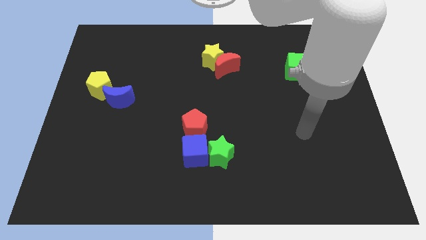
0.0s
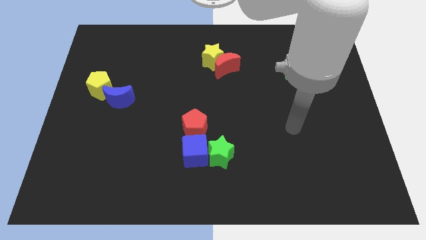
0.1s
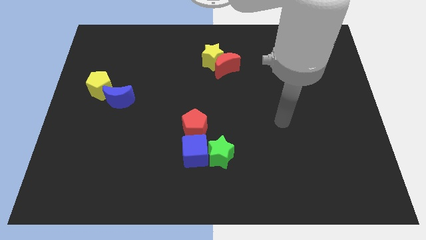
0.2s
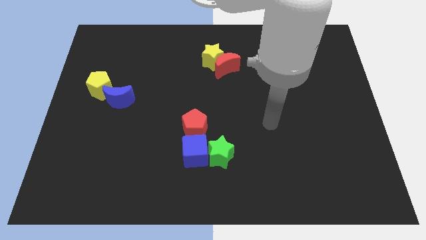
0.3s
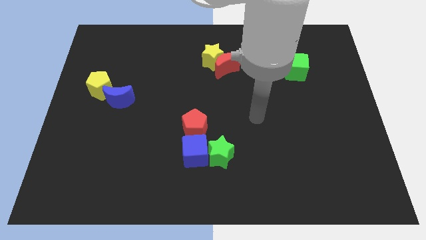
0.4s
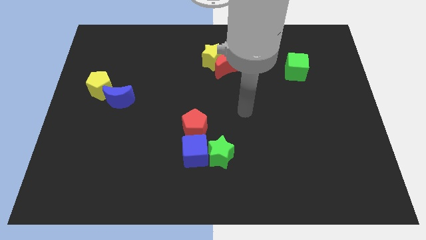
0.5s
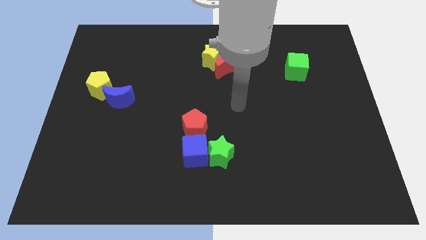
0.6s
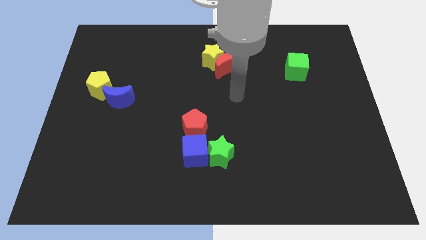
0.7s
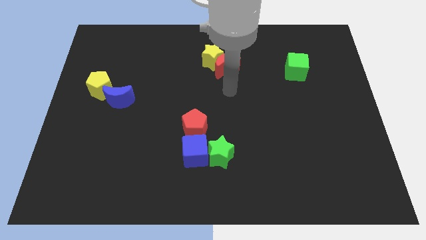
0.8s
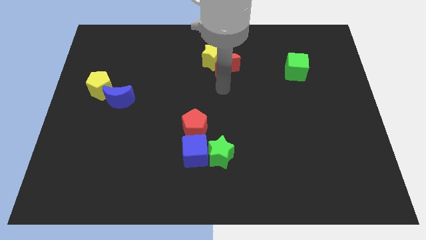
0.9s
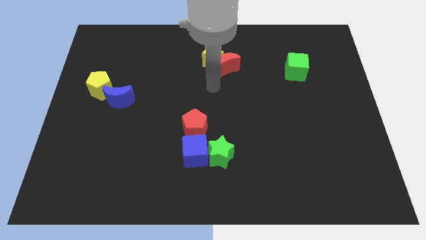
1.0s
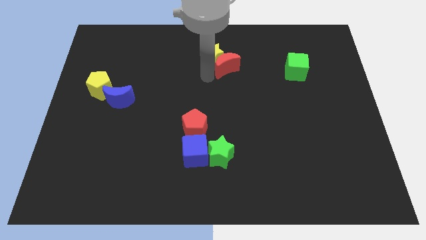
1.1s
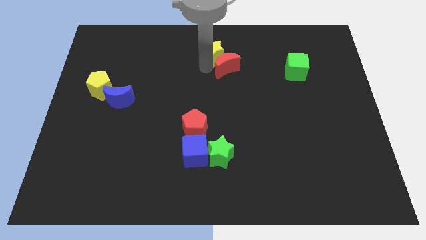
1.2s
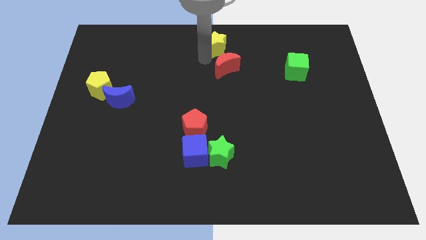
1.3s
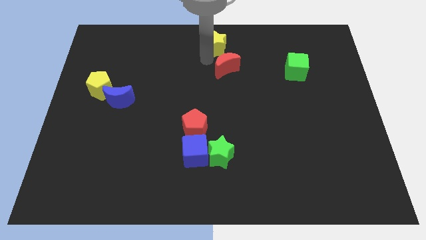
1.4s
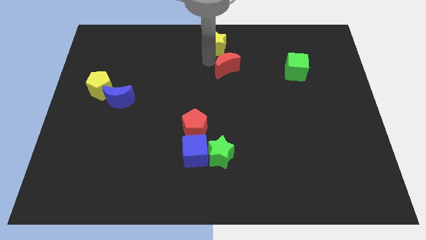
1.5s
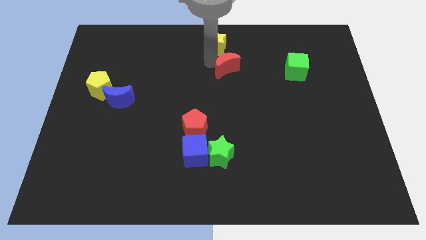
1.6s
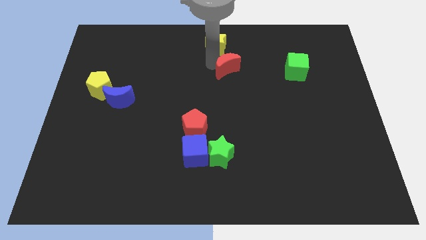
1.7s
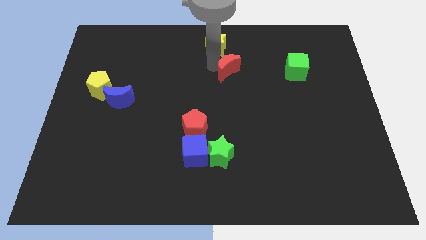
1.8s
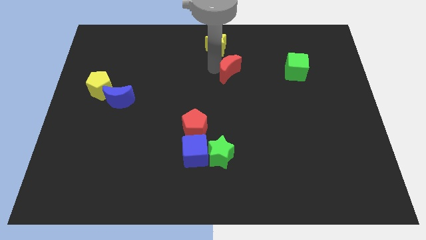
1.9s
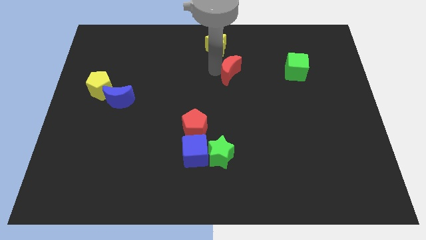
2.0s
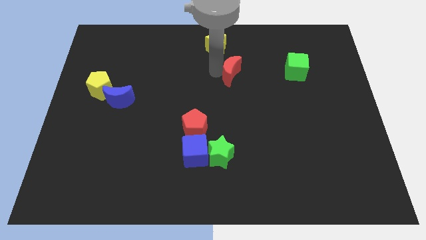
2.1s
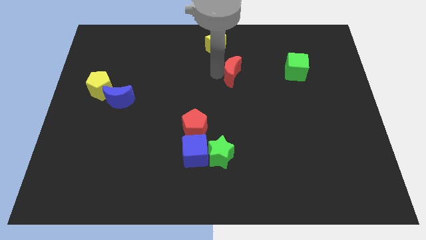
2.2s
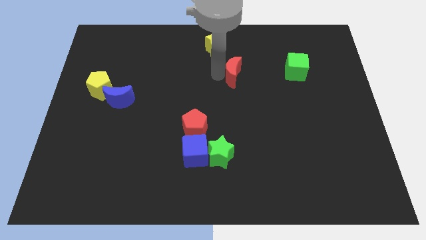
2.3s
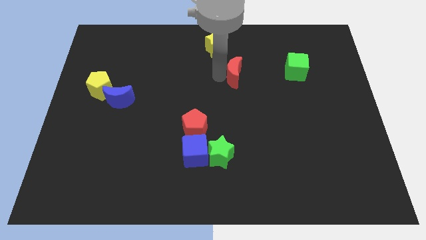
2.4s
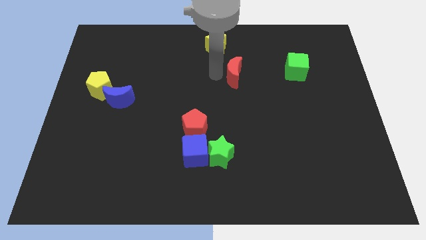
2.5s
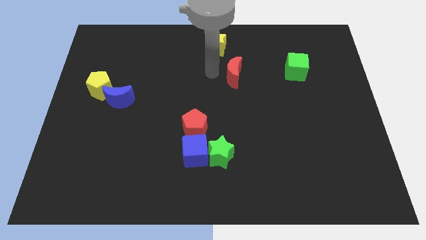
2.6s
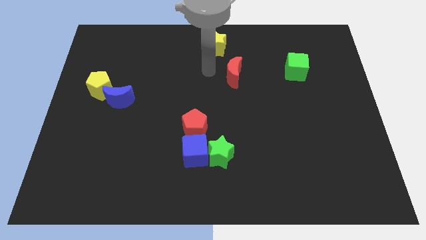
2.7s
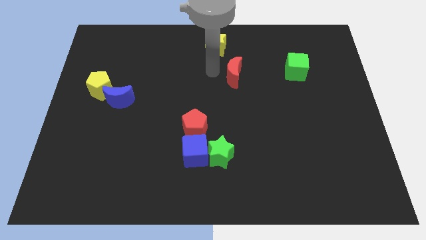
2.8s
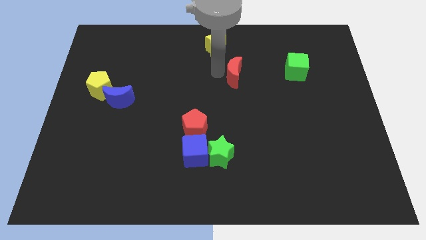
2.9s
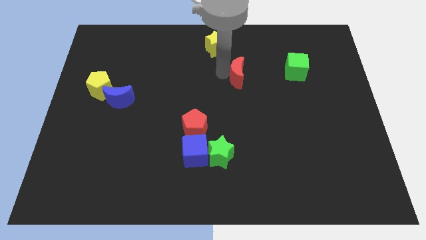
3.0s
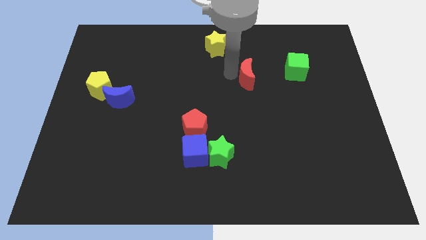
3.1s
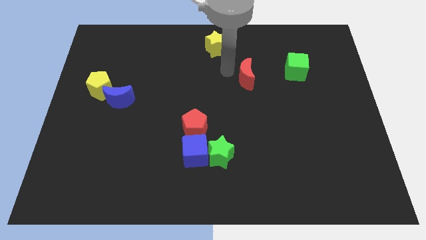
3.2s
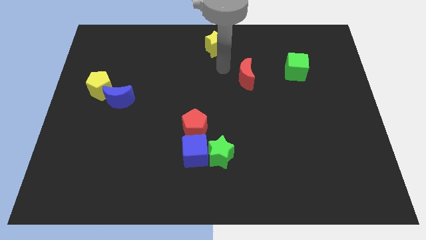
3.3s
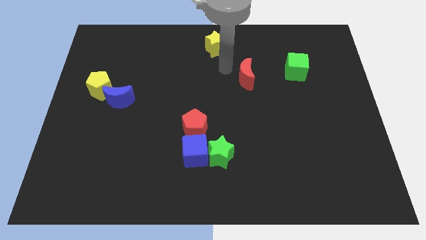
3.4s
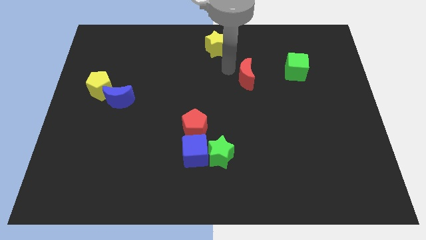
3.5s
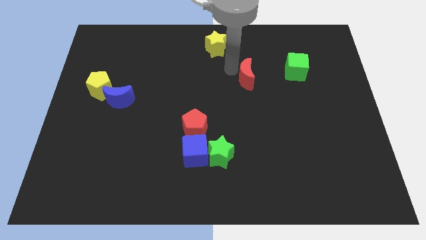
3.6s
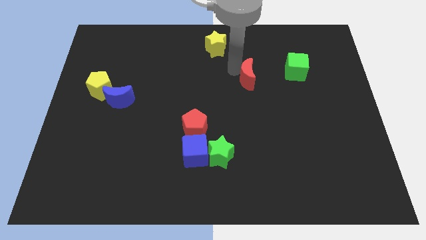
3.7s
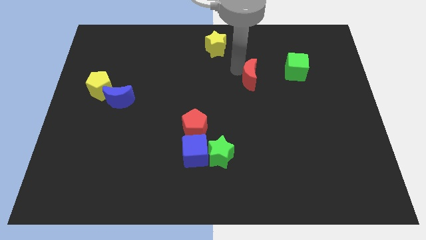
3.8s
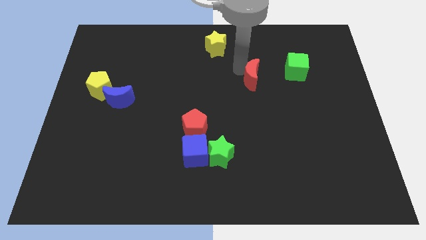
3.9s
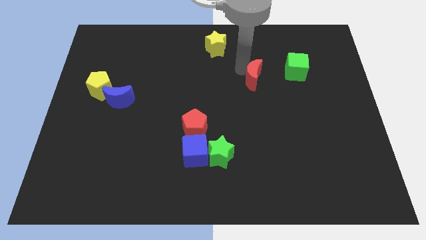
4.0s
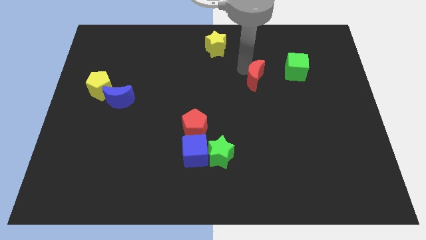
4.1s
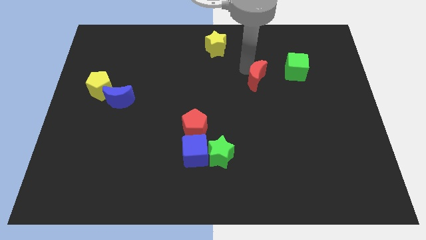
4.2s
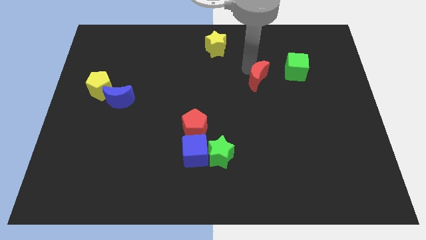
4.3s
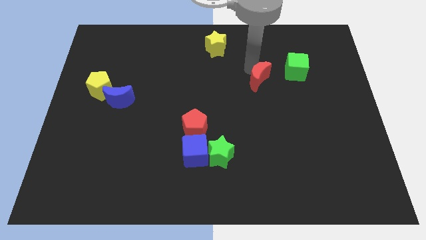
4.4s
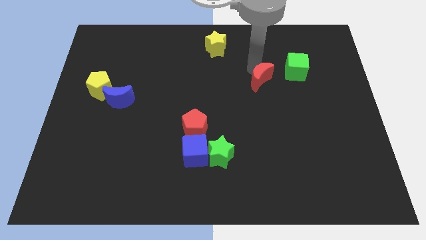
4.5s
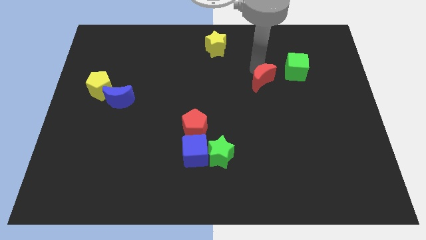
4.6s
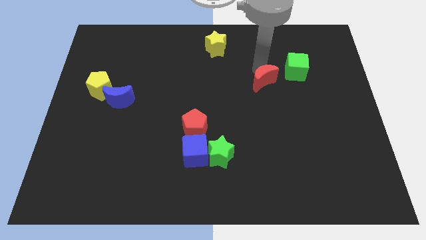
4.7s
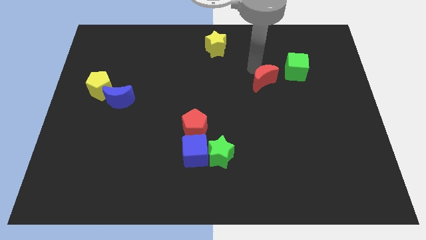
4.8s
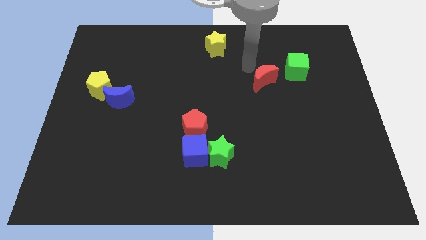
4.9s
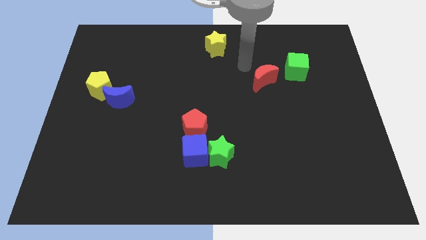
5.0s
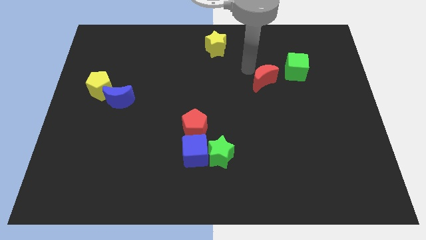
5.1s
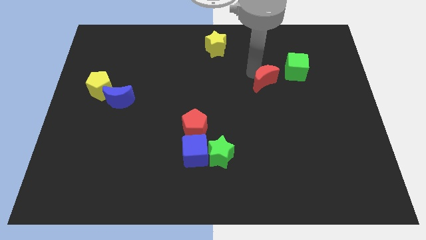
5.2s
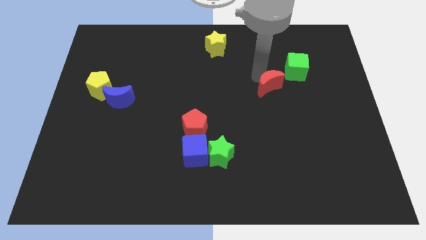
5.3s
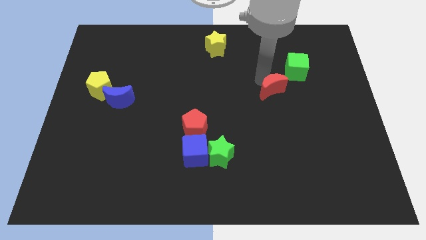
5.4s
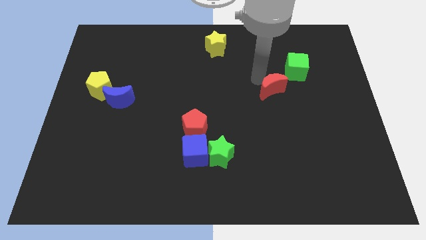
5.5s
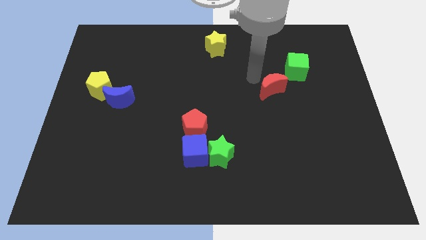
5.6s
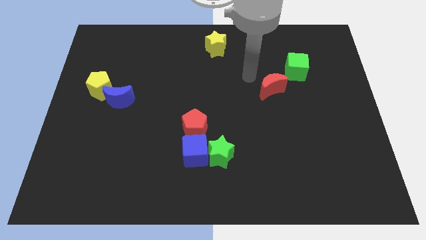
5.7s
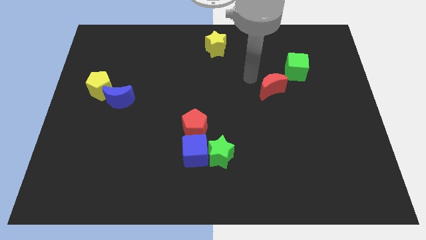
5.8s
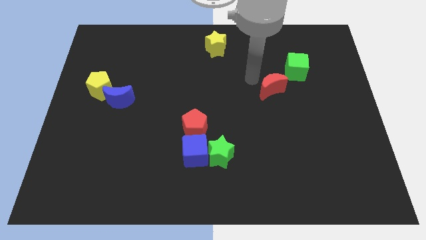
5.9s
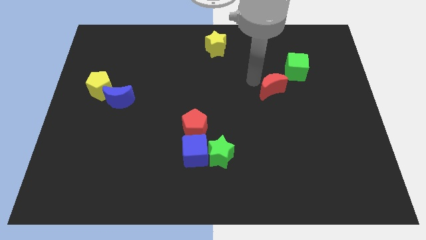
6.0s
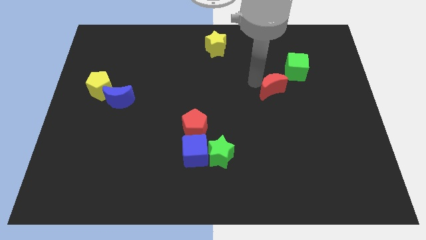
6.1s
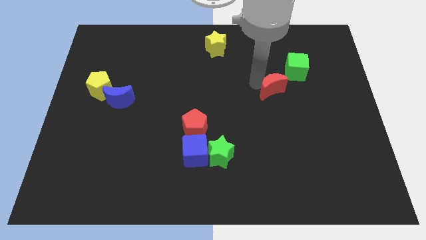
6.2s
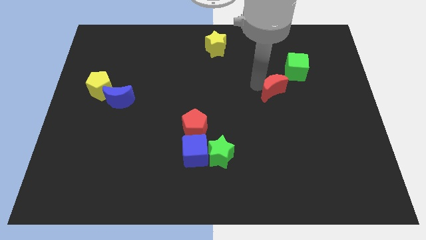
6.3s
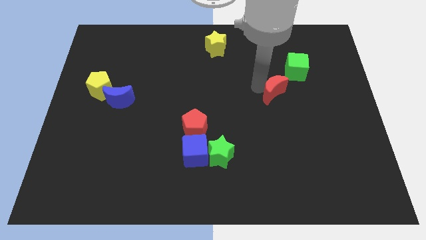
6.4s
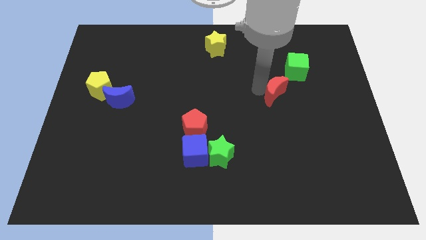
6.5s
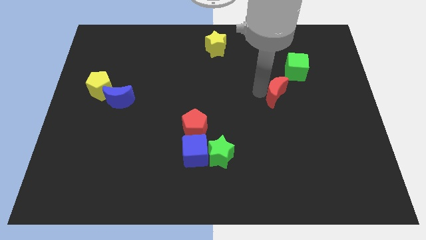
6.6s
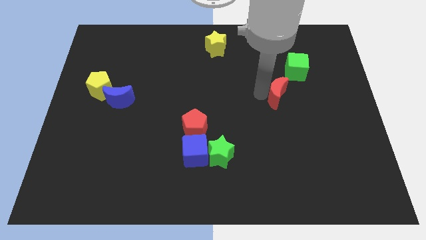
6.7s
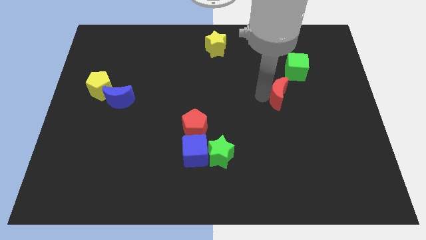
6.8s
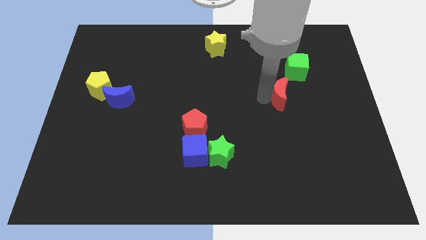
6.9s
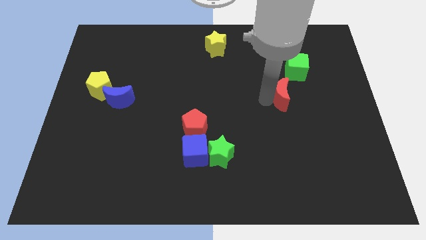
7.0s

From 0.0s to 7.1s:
move the red moon below the green cube

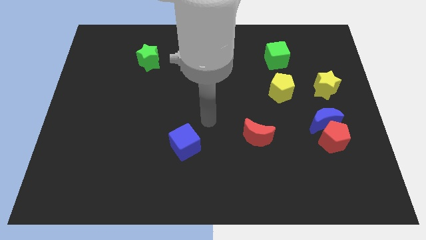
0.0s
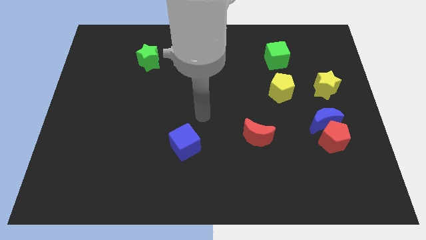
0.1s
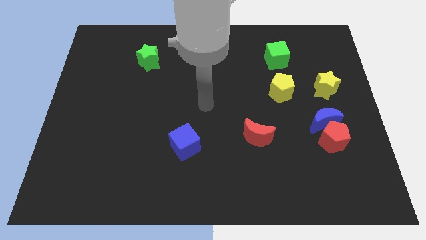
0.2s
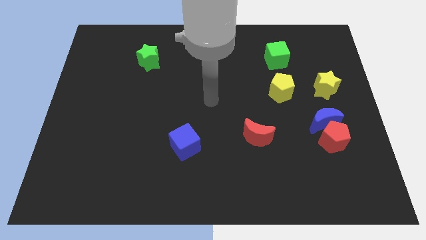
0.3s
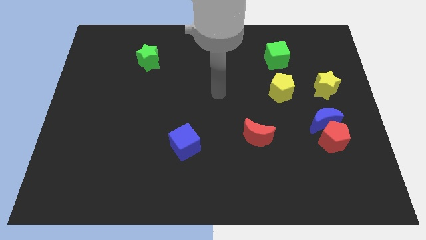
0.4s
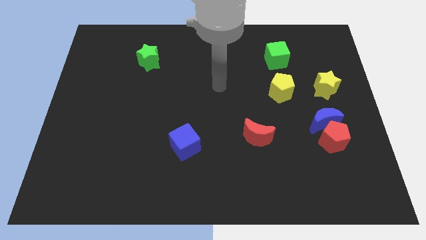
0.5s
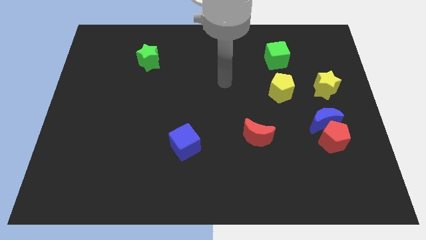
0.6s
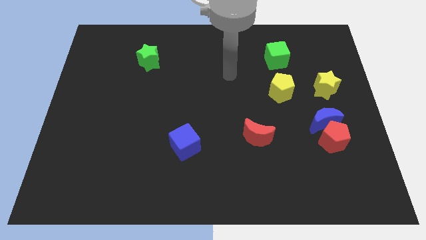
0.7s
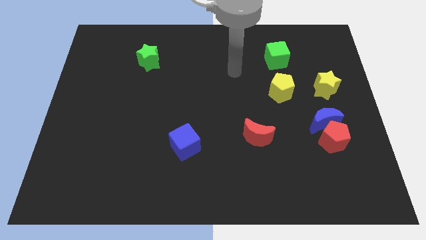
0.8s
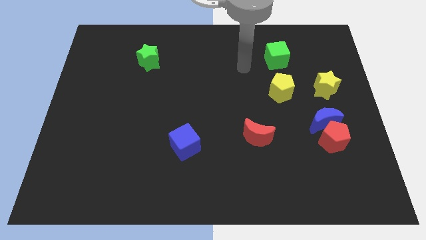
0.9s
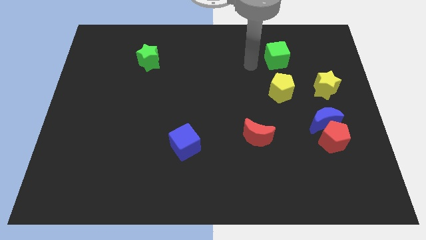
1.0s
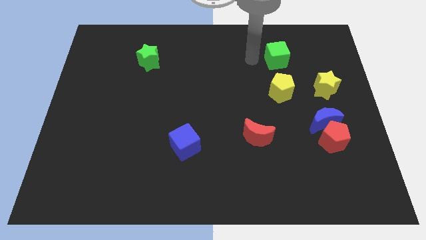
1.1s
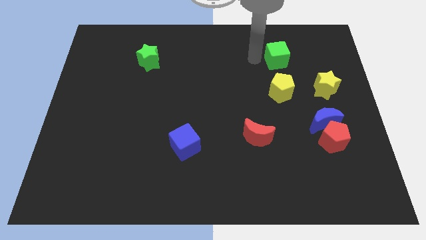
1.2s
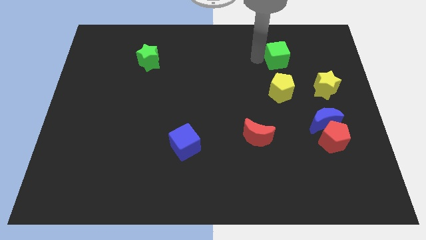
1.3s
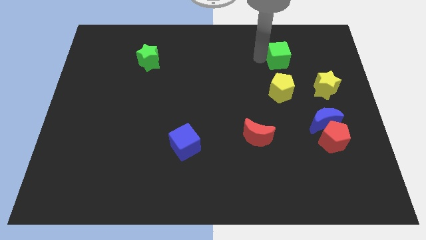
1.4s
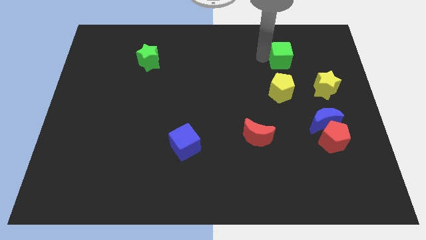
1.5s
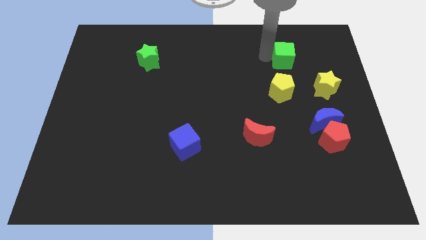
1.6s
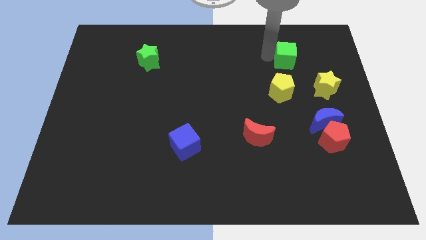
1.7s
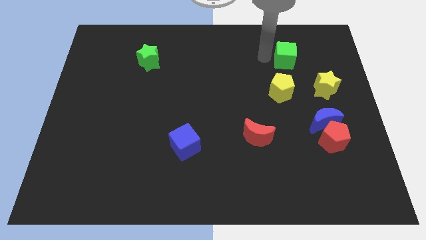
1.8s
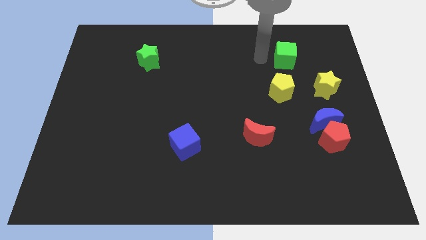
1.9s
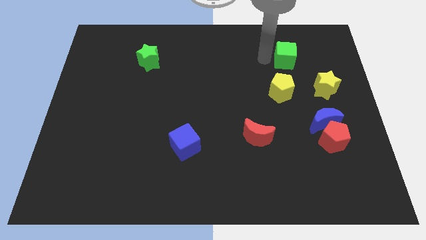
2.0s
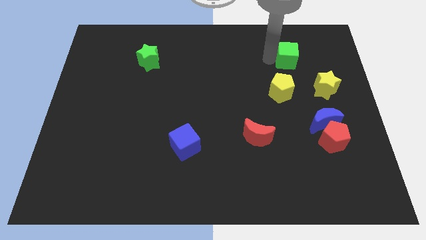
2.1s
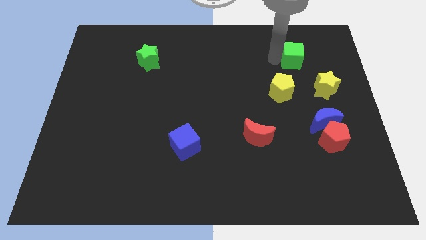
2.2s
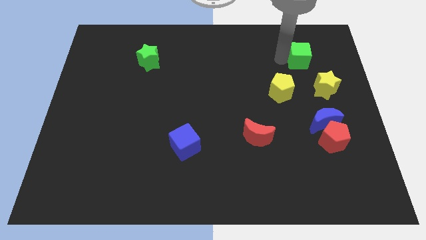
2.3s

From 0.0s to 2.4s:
slide the green cube to the top side of the yellow star
